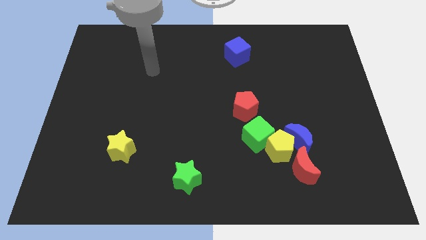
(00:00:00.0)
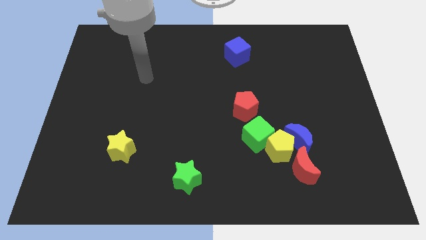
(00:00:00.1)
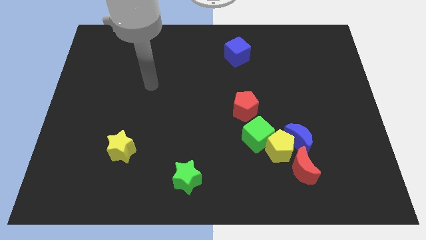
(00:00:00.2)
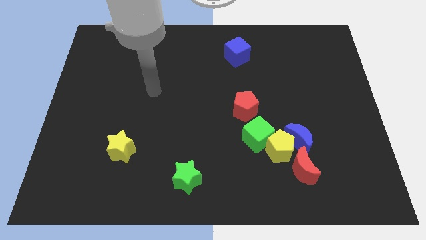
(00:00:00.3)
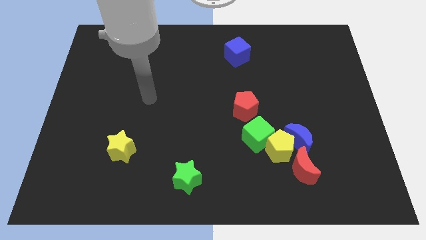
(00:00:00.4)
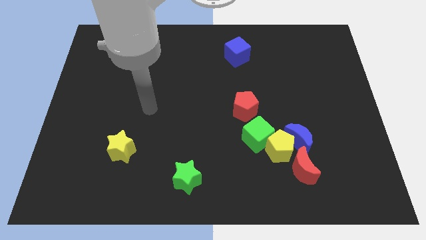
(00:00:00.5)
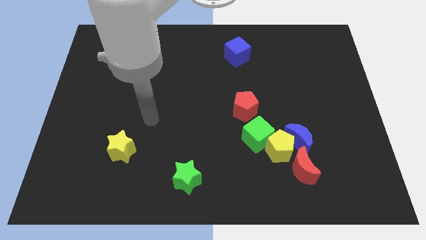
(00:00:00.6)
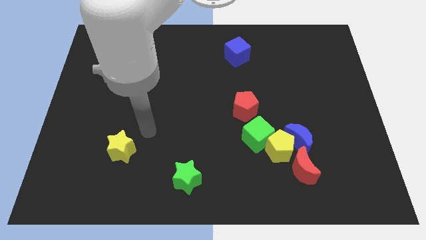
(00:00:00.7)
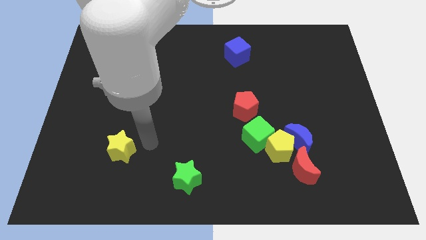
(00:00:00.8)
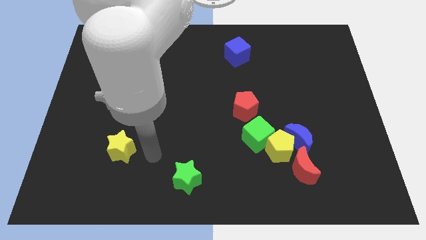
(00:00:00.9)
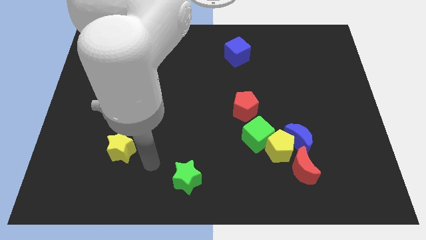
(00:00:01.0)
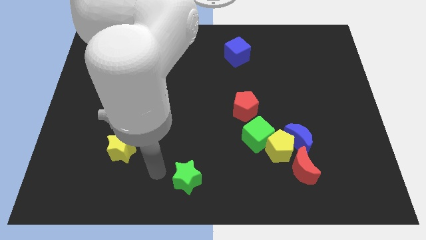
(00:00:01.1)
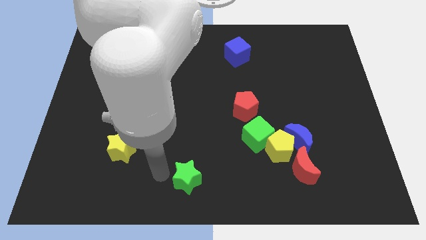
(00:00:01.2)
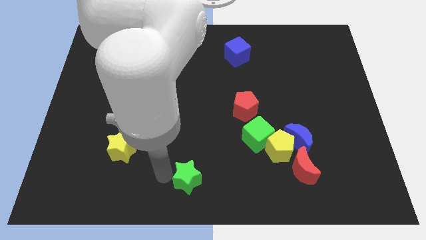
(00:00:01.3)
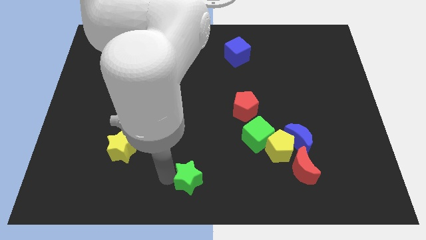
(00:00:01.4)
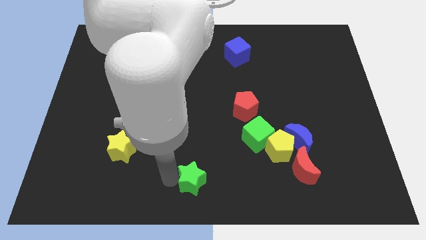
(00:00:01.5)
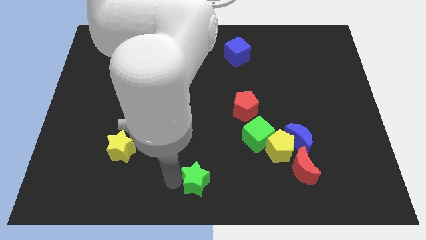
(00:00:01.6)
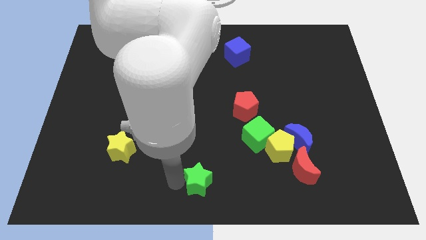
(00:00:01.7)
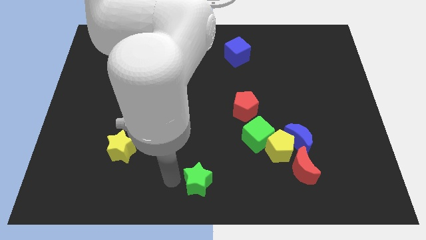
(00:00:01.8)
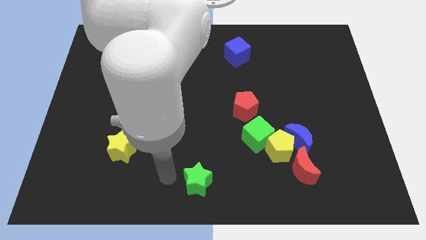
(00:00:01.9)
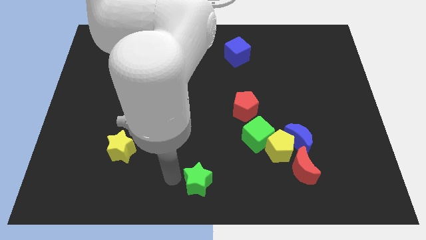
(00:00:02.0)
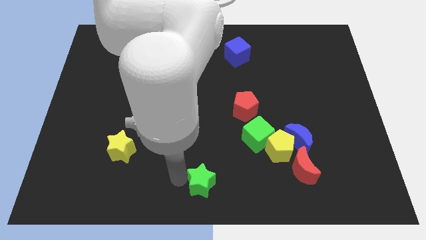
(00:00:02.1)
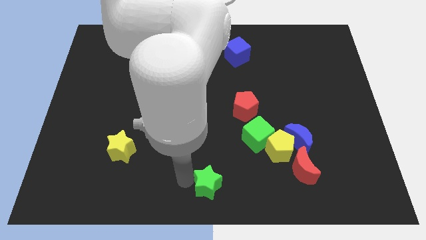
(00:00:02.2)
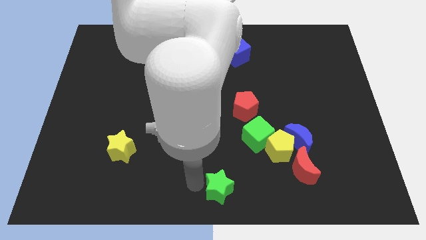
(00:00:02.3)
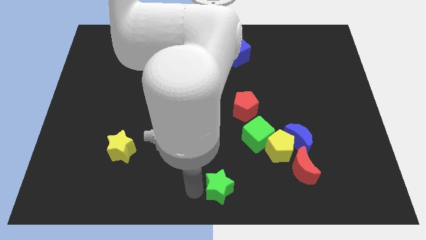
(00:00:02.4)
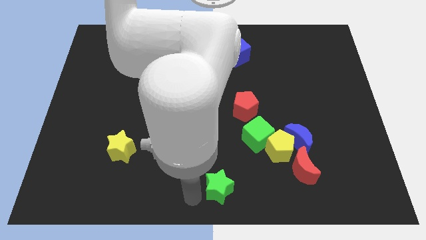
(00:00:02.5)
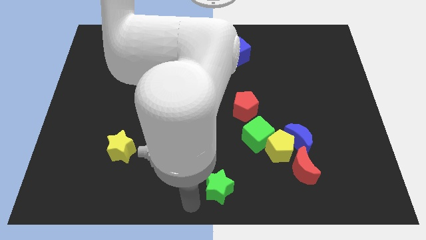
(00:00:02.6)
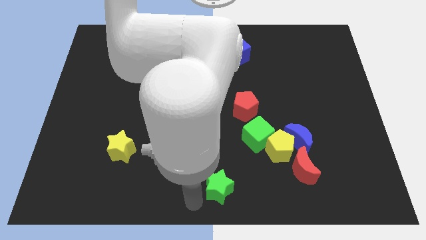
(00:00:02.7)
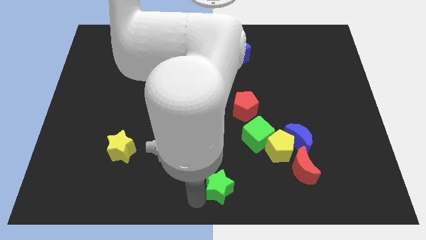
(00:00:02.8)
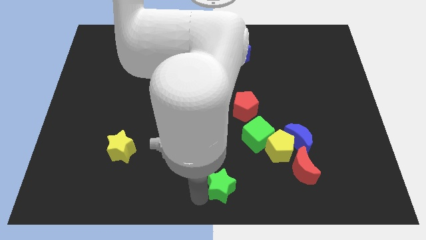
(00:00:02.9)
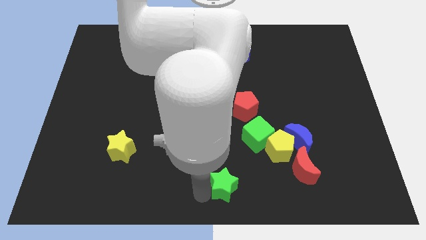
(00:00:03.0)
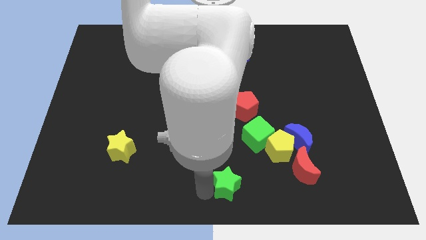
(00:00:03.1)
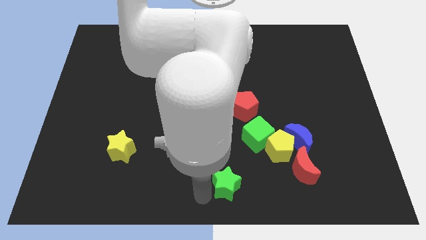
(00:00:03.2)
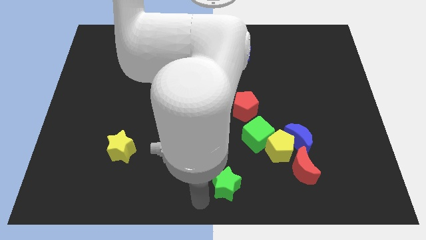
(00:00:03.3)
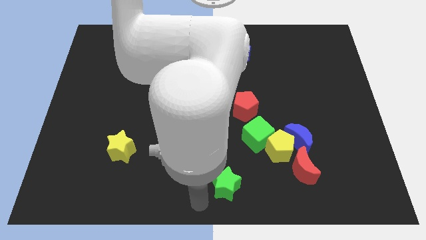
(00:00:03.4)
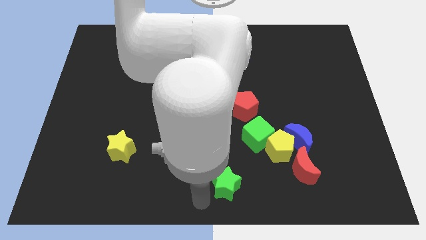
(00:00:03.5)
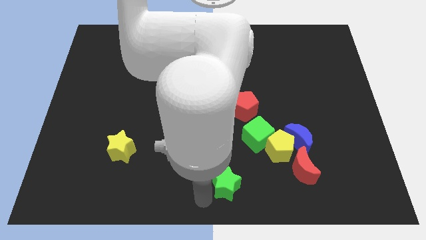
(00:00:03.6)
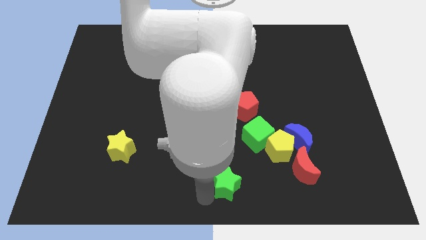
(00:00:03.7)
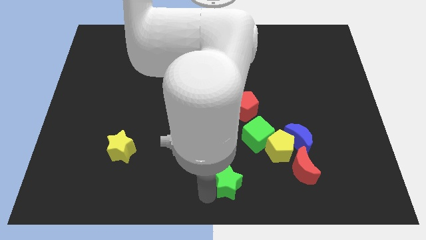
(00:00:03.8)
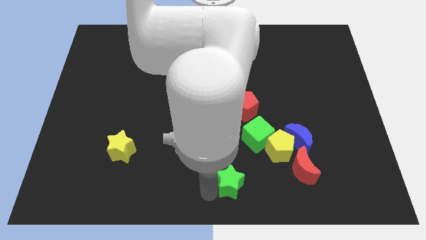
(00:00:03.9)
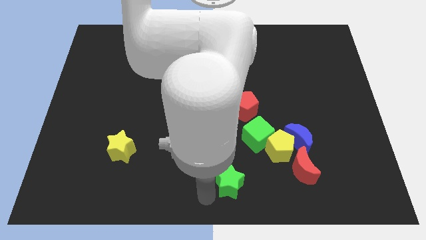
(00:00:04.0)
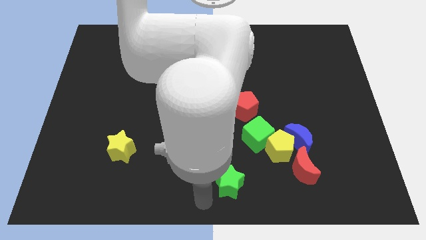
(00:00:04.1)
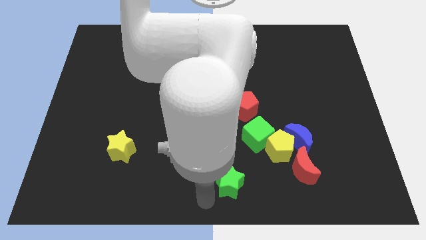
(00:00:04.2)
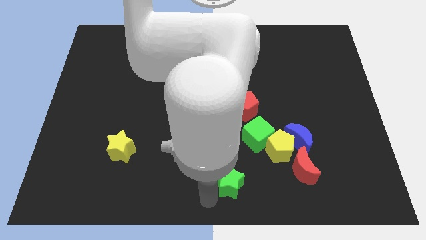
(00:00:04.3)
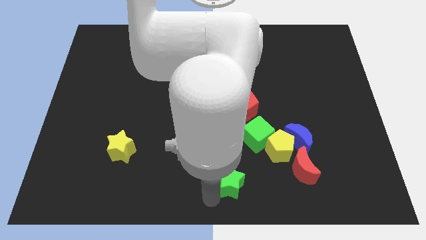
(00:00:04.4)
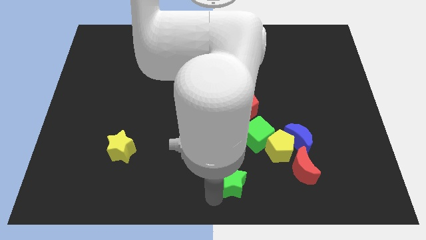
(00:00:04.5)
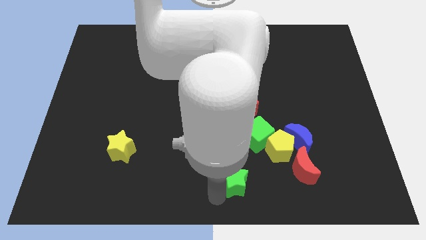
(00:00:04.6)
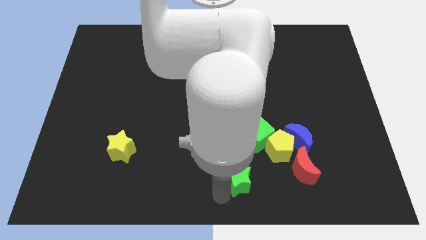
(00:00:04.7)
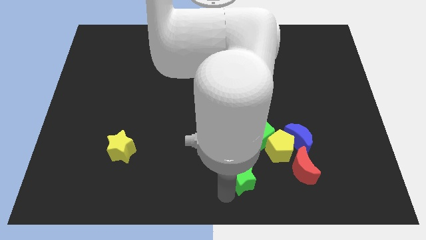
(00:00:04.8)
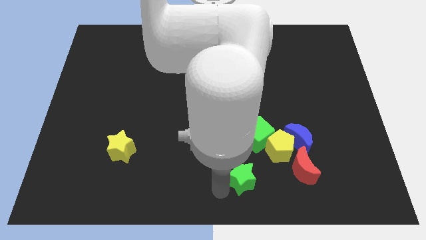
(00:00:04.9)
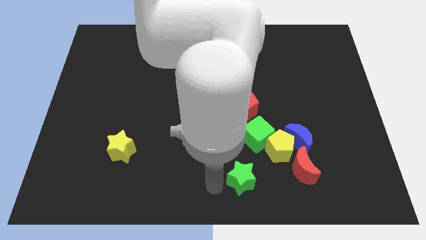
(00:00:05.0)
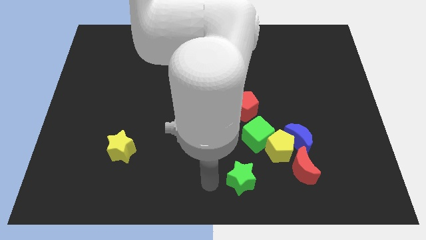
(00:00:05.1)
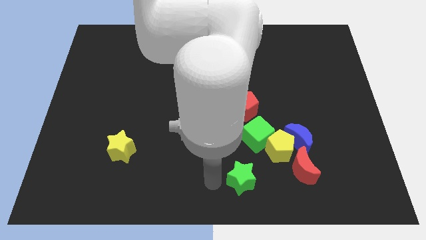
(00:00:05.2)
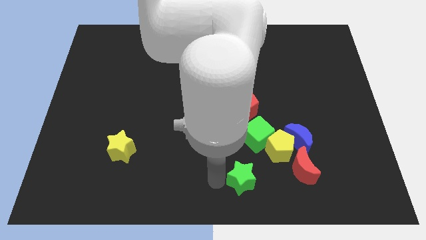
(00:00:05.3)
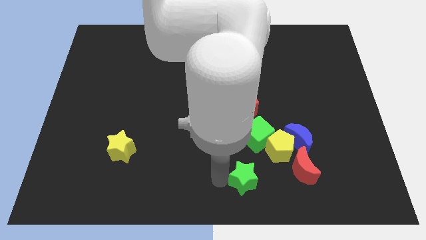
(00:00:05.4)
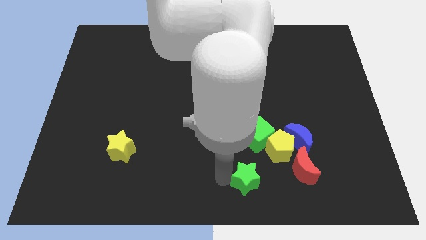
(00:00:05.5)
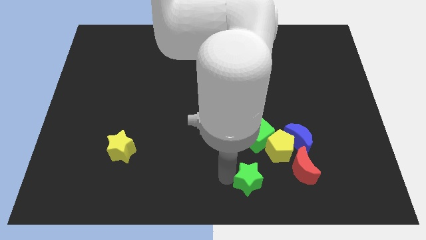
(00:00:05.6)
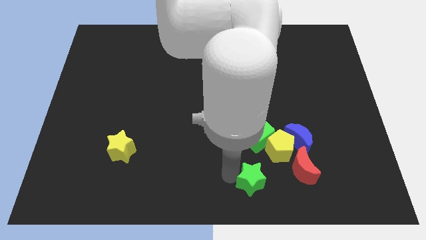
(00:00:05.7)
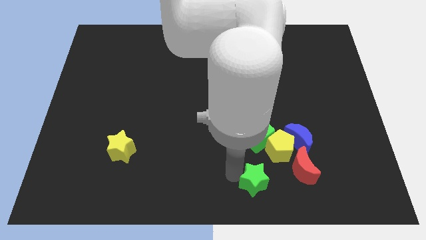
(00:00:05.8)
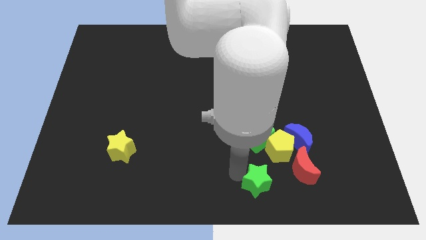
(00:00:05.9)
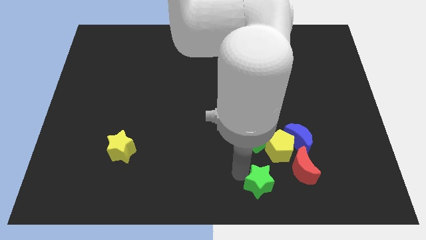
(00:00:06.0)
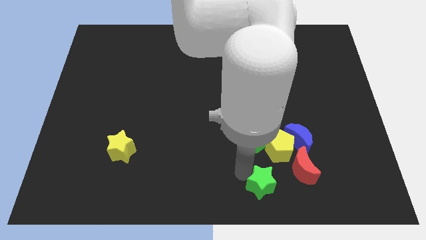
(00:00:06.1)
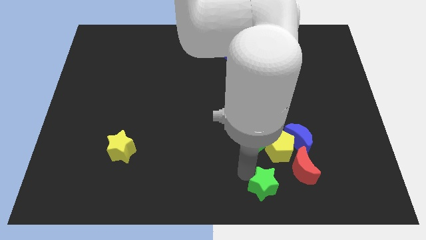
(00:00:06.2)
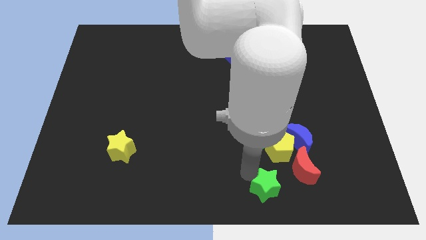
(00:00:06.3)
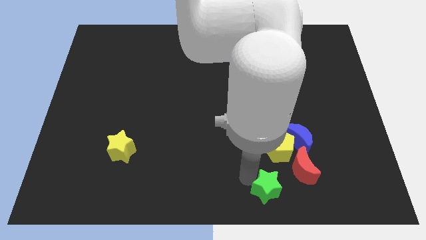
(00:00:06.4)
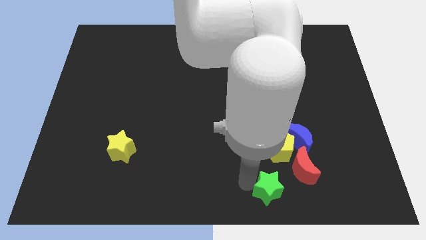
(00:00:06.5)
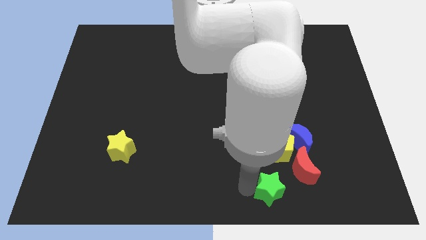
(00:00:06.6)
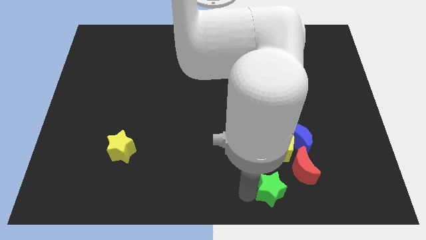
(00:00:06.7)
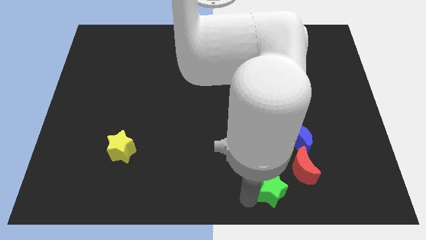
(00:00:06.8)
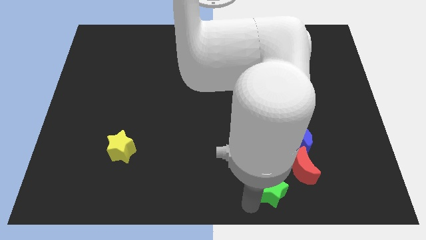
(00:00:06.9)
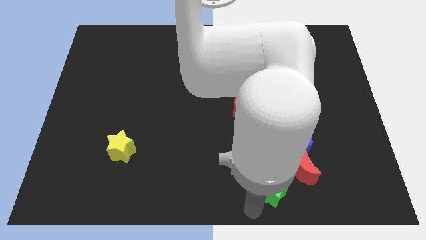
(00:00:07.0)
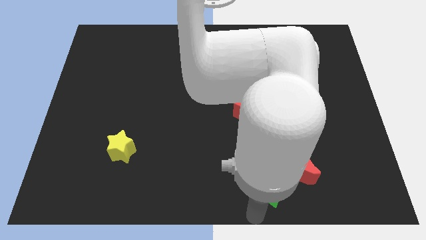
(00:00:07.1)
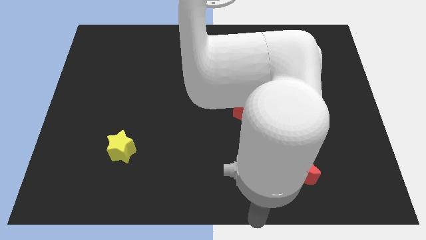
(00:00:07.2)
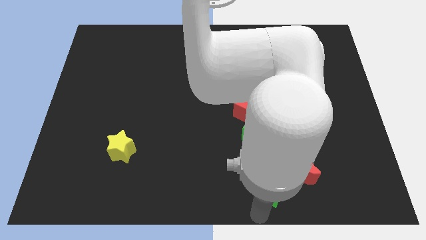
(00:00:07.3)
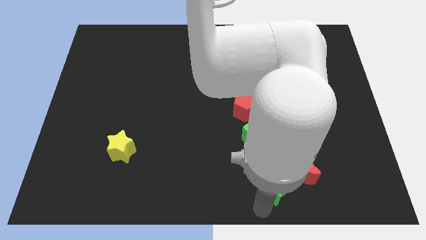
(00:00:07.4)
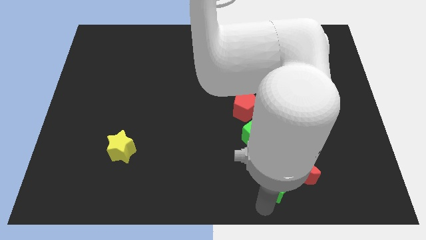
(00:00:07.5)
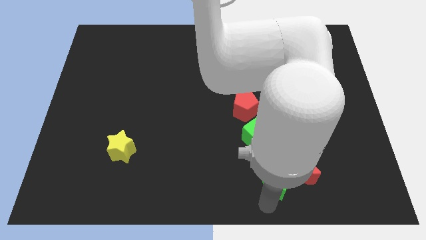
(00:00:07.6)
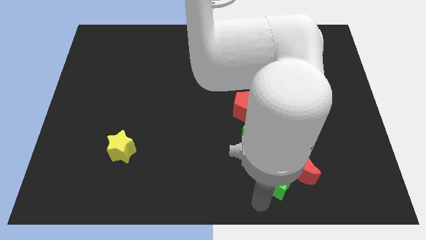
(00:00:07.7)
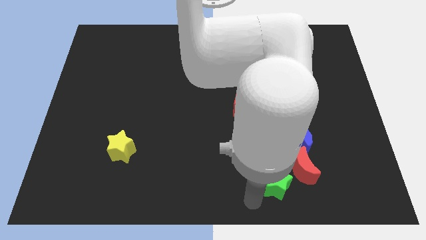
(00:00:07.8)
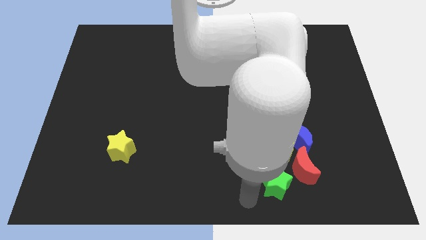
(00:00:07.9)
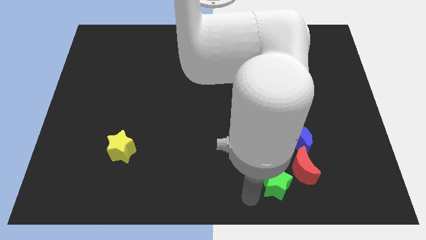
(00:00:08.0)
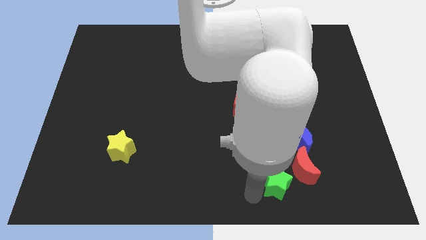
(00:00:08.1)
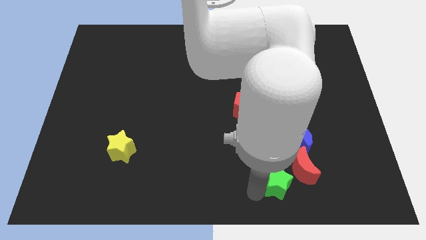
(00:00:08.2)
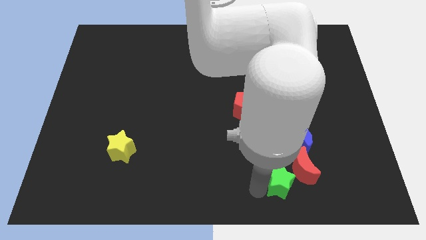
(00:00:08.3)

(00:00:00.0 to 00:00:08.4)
push the green star next to the red moon
